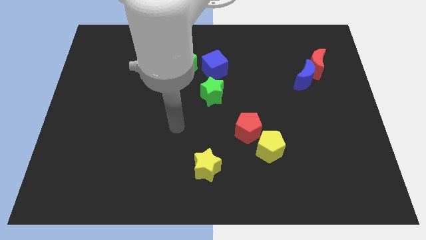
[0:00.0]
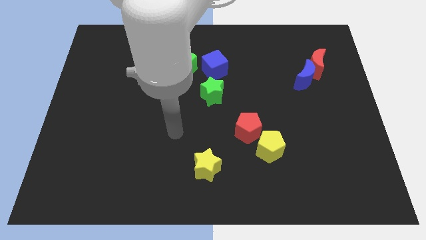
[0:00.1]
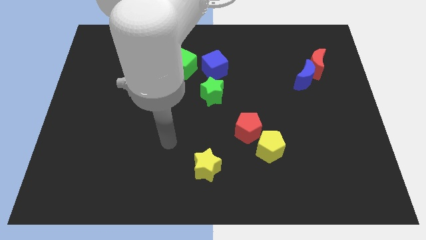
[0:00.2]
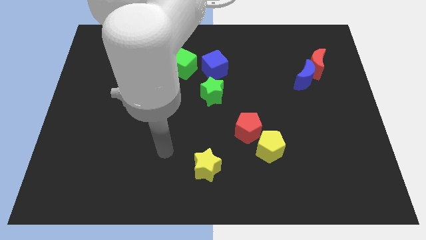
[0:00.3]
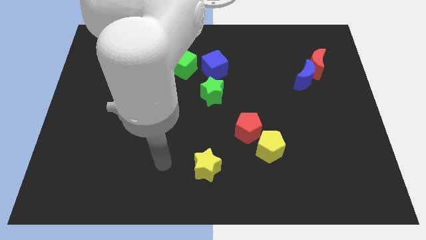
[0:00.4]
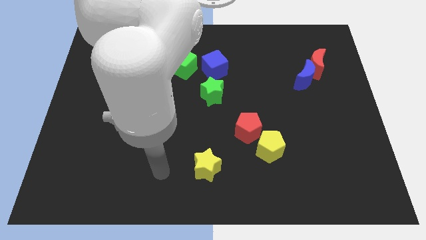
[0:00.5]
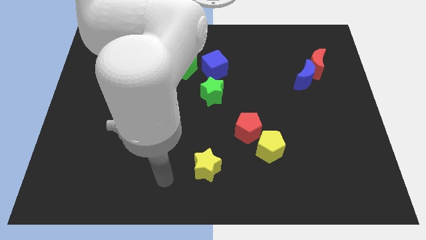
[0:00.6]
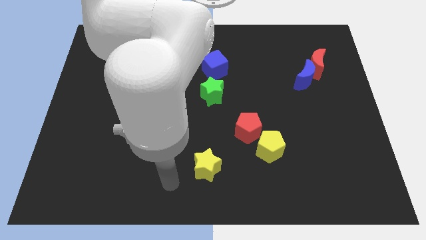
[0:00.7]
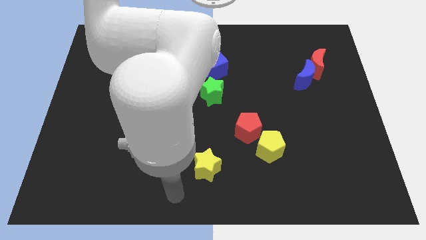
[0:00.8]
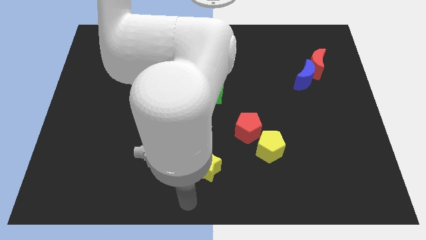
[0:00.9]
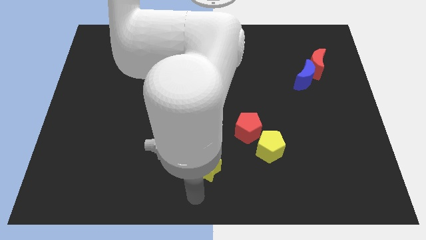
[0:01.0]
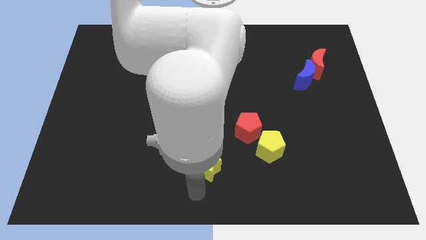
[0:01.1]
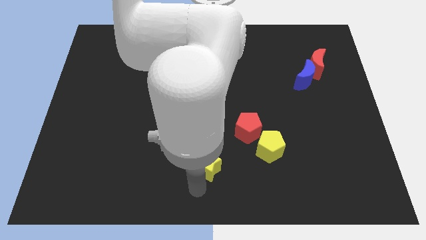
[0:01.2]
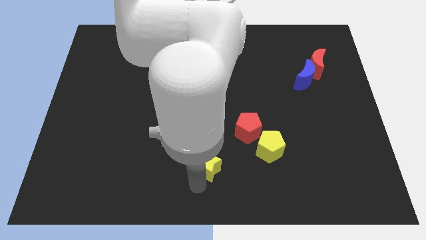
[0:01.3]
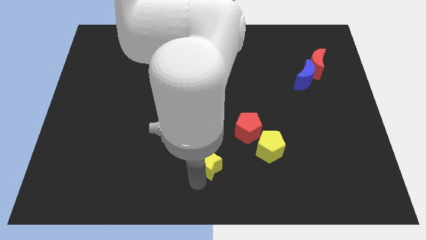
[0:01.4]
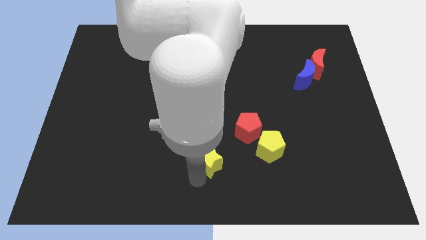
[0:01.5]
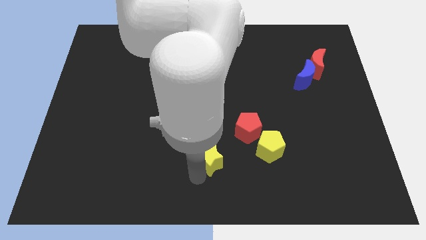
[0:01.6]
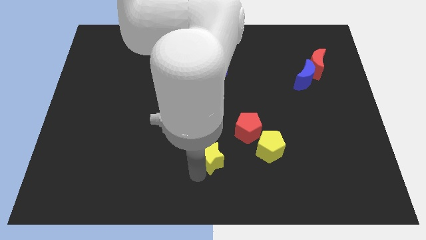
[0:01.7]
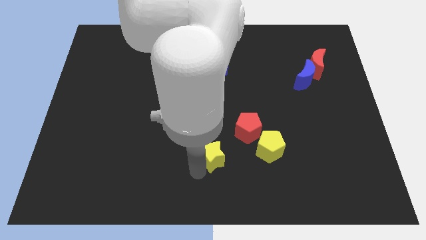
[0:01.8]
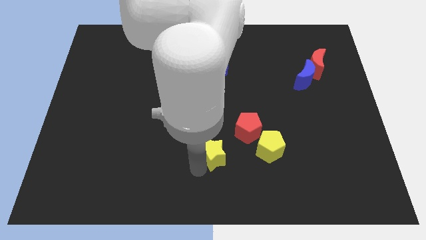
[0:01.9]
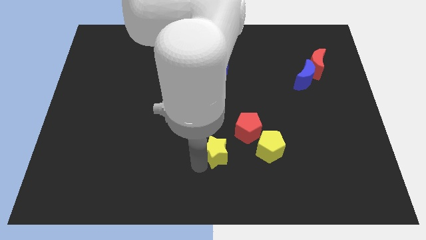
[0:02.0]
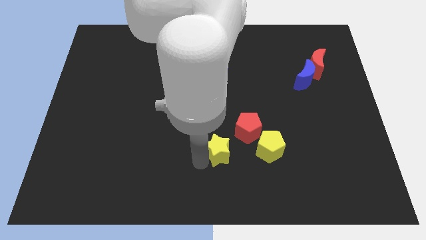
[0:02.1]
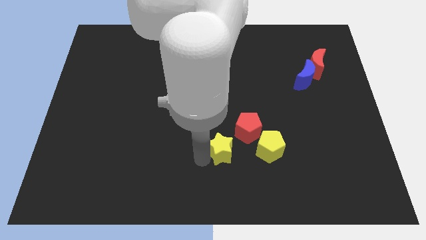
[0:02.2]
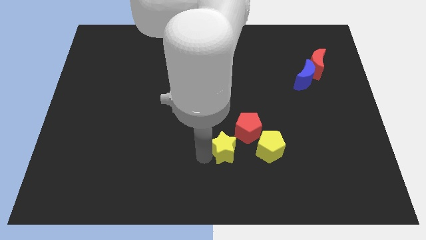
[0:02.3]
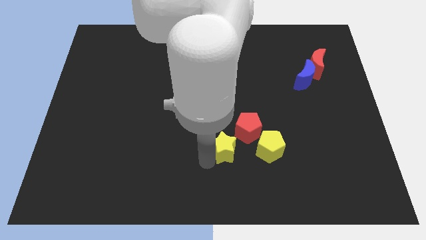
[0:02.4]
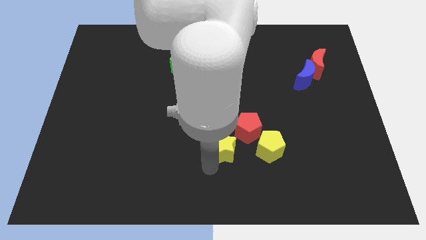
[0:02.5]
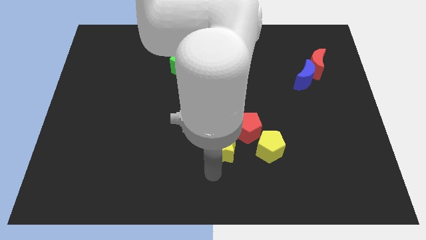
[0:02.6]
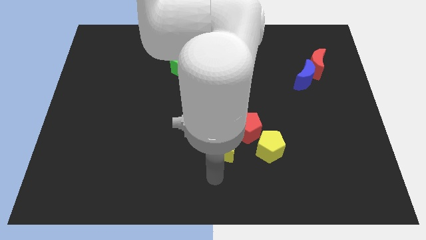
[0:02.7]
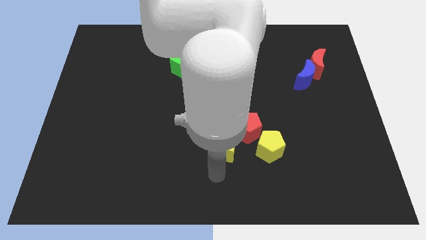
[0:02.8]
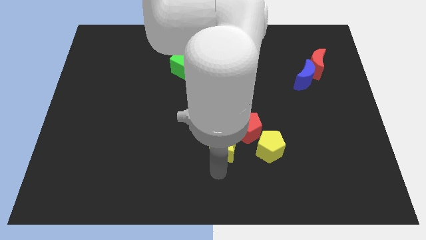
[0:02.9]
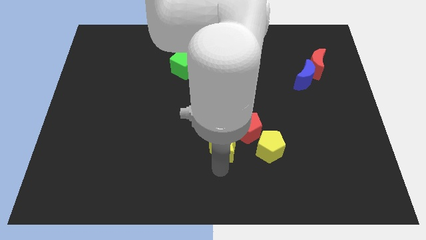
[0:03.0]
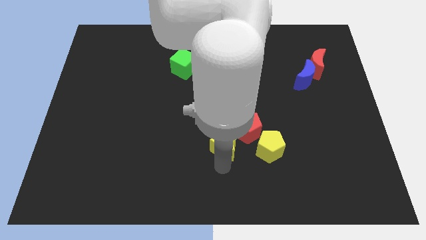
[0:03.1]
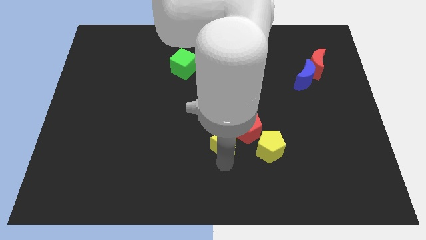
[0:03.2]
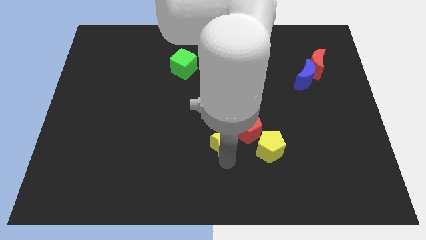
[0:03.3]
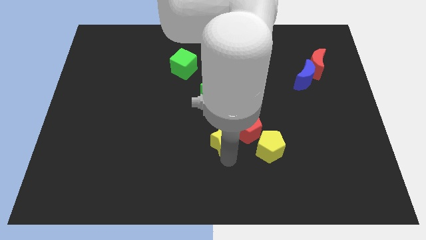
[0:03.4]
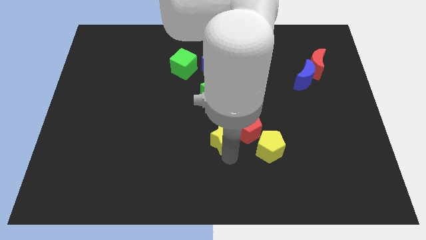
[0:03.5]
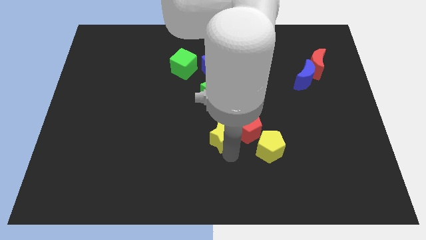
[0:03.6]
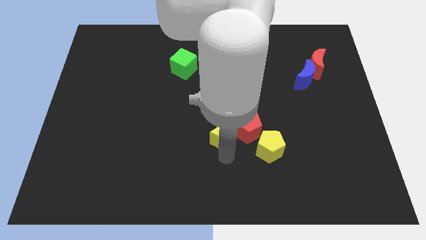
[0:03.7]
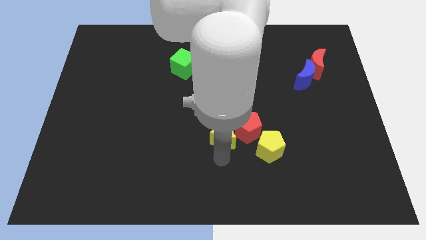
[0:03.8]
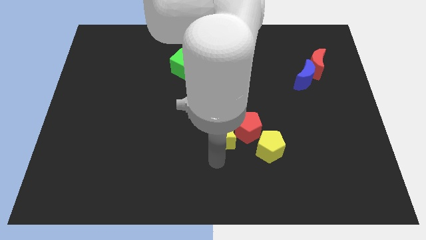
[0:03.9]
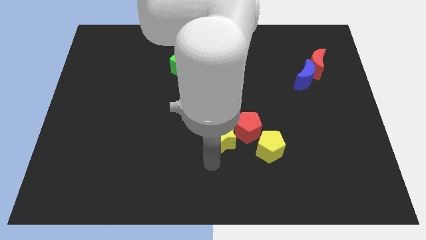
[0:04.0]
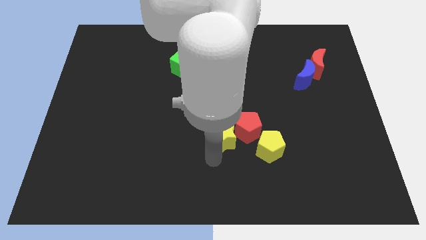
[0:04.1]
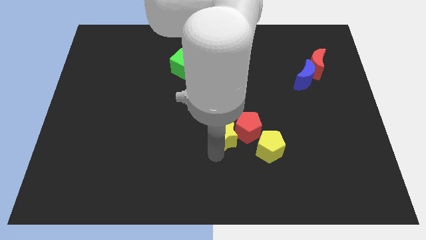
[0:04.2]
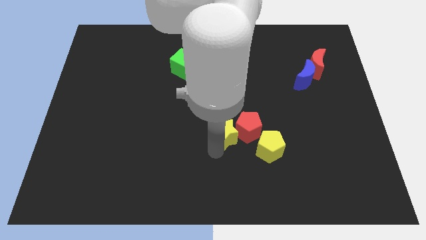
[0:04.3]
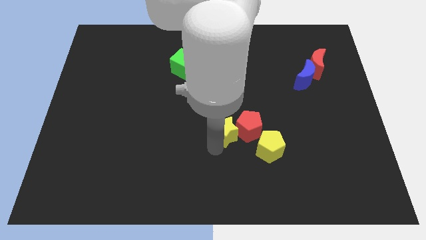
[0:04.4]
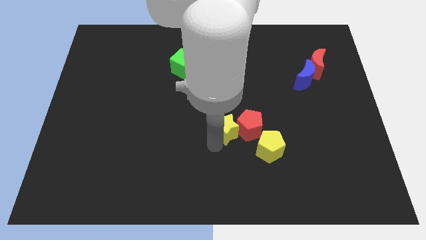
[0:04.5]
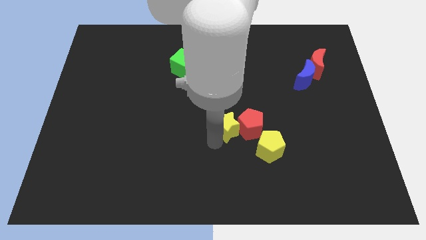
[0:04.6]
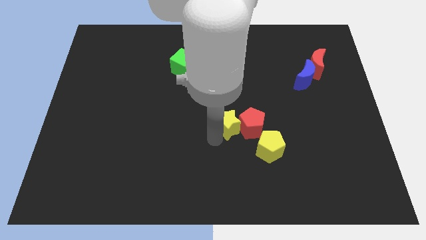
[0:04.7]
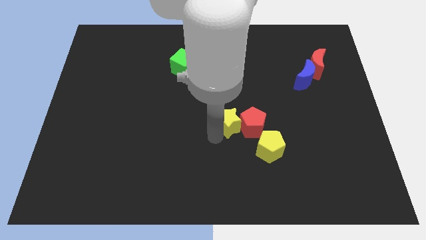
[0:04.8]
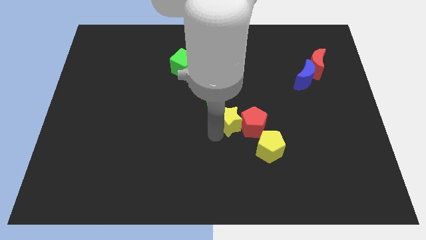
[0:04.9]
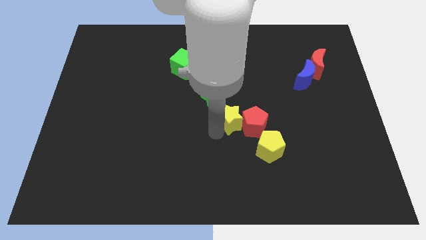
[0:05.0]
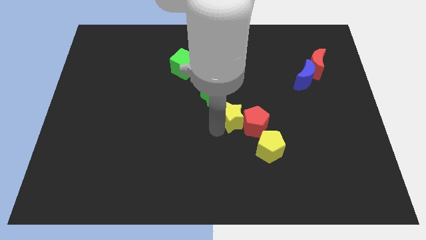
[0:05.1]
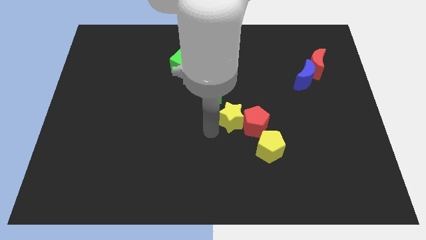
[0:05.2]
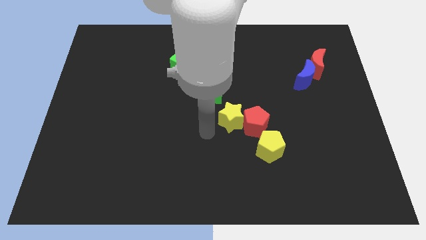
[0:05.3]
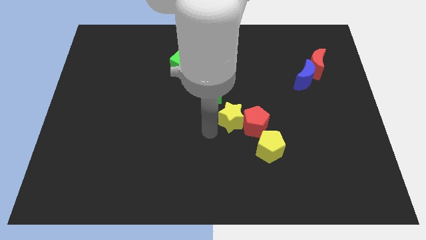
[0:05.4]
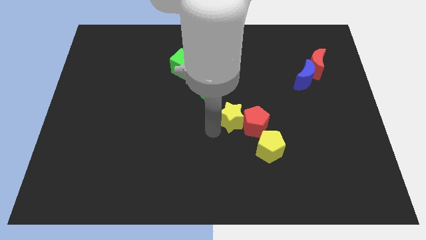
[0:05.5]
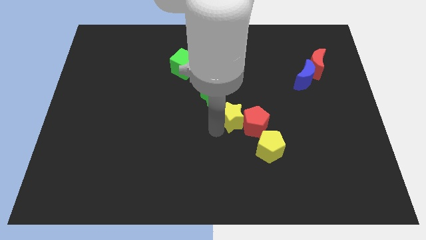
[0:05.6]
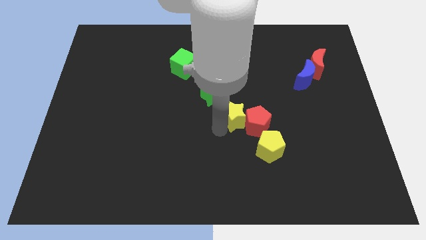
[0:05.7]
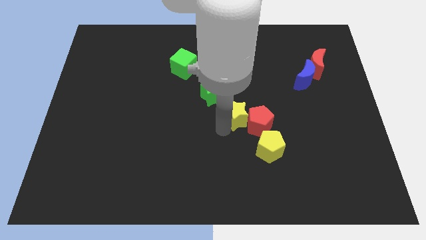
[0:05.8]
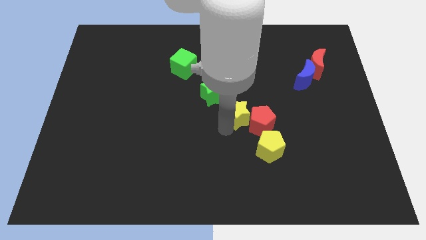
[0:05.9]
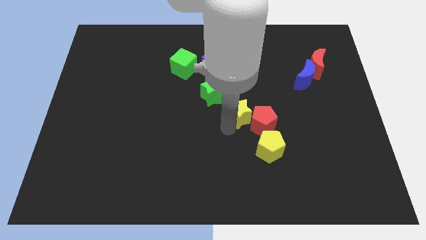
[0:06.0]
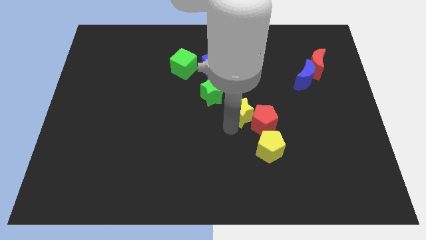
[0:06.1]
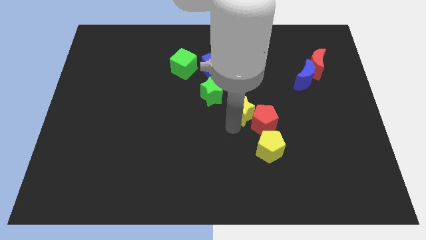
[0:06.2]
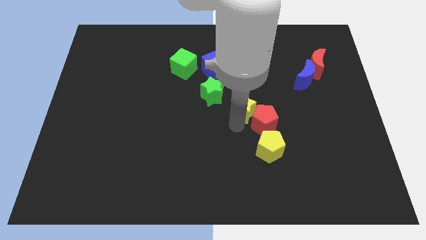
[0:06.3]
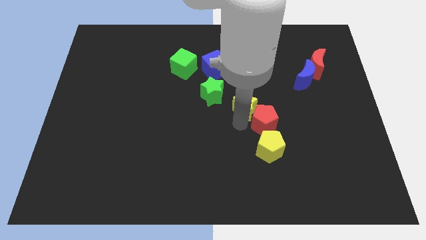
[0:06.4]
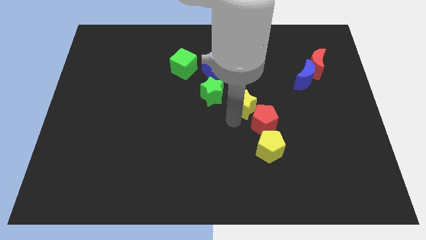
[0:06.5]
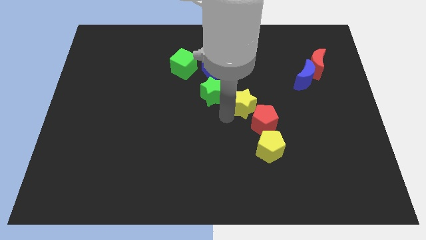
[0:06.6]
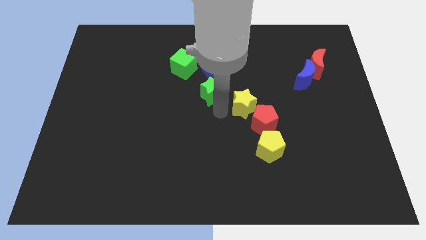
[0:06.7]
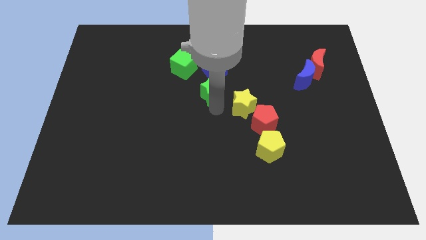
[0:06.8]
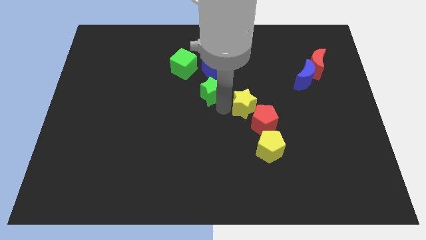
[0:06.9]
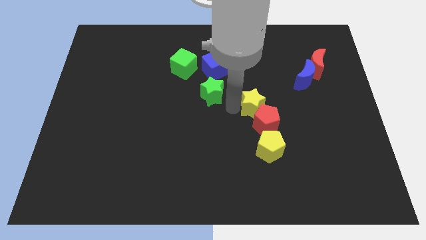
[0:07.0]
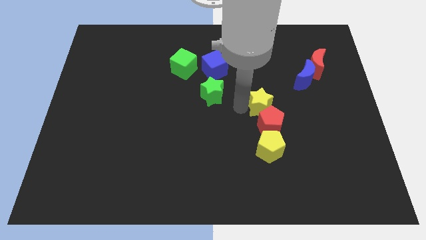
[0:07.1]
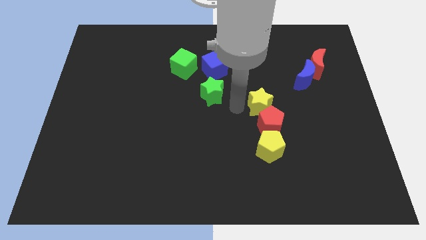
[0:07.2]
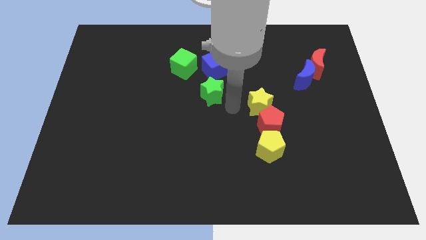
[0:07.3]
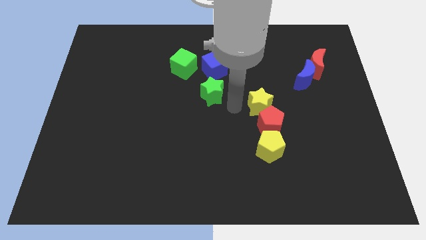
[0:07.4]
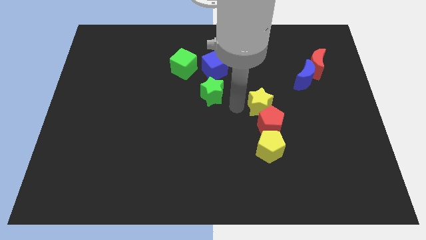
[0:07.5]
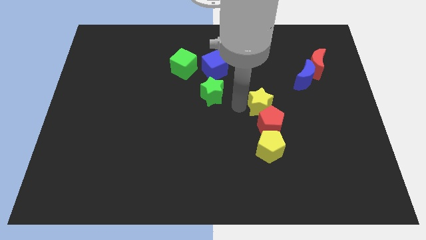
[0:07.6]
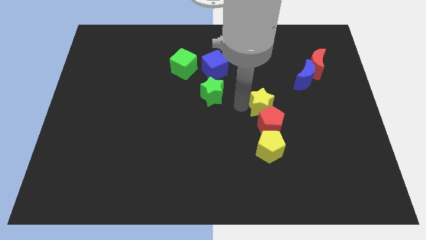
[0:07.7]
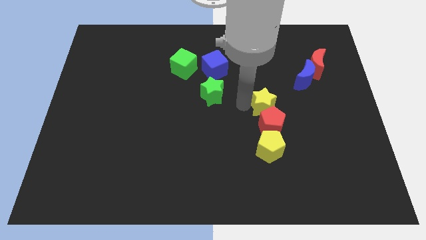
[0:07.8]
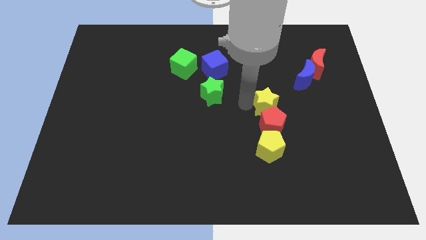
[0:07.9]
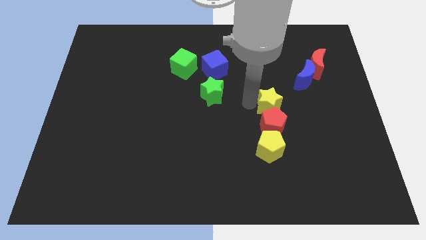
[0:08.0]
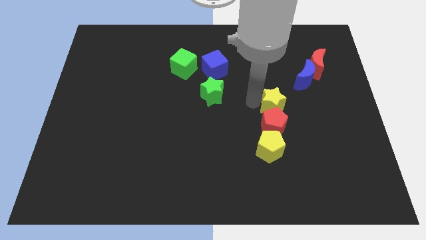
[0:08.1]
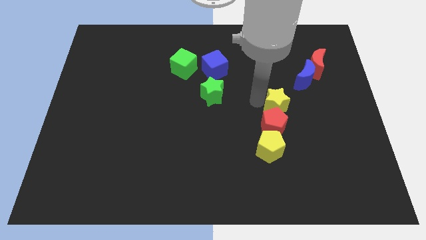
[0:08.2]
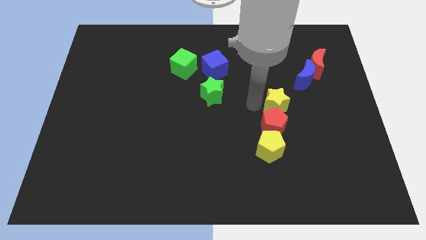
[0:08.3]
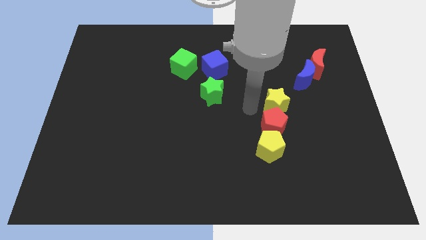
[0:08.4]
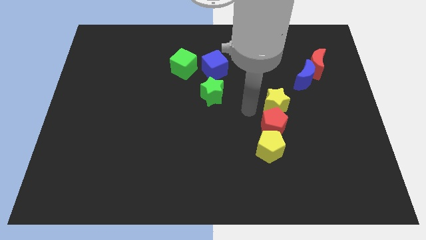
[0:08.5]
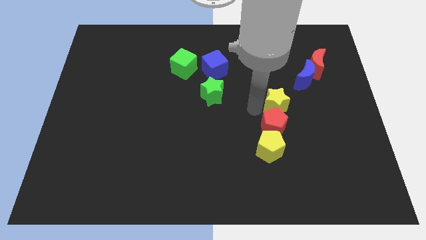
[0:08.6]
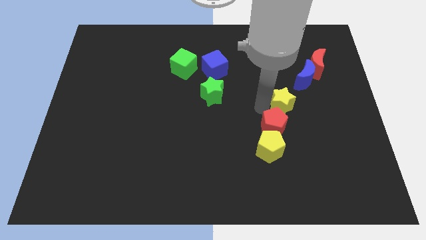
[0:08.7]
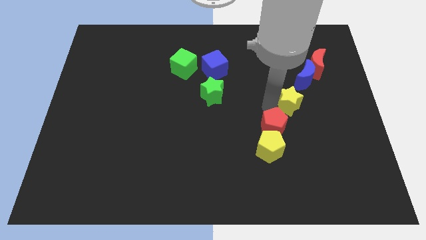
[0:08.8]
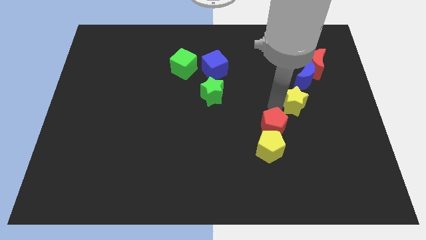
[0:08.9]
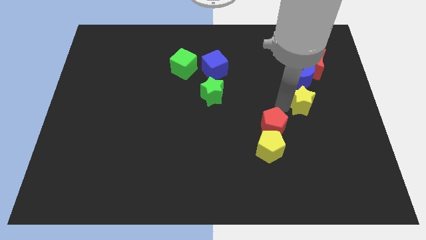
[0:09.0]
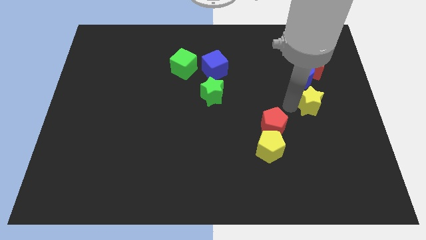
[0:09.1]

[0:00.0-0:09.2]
push the yellow star to the bottom side of the red moon
